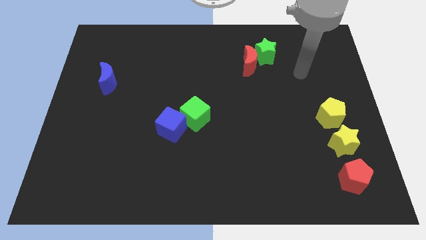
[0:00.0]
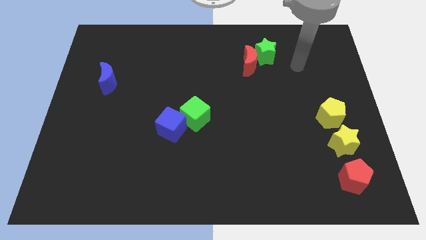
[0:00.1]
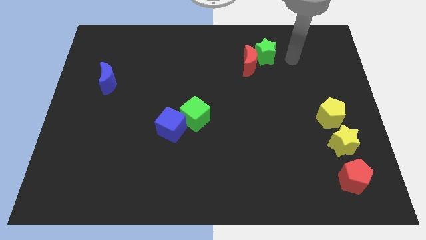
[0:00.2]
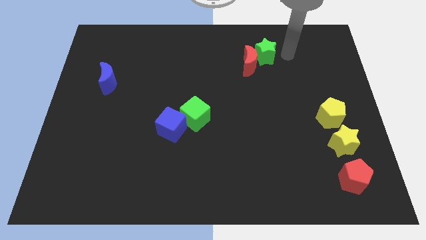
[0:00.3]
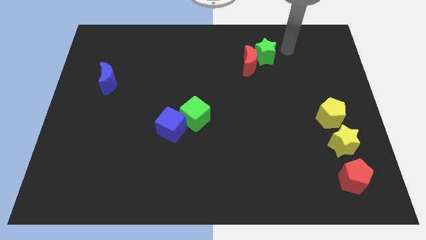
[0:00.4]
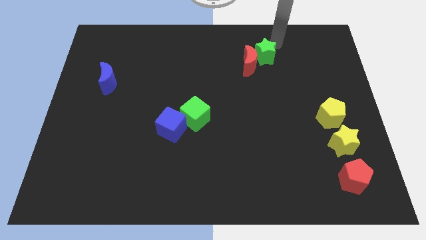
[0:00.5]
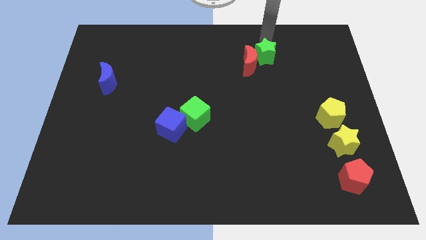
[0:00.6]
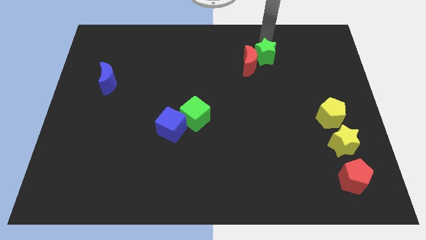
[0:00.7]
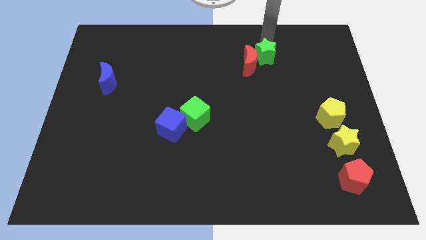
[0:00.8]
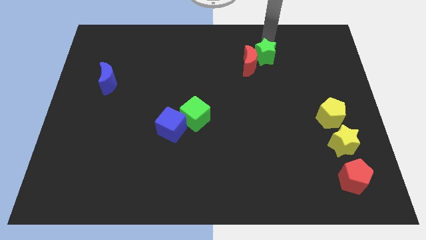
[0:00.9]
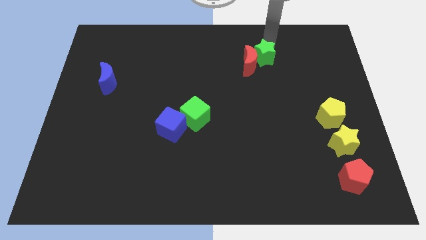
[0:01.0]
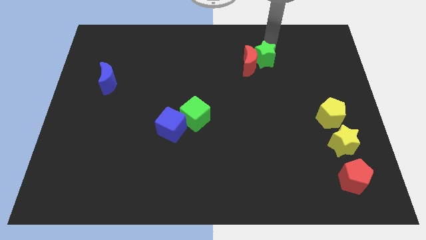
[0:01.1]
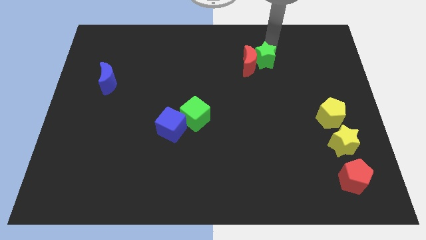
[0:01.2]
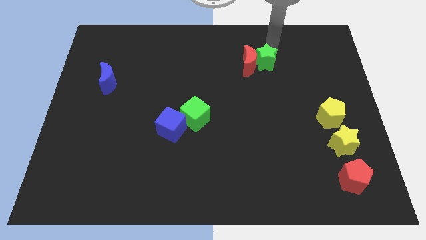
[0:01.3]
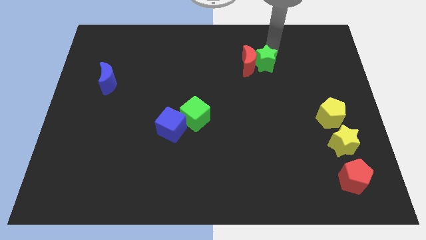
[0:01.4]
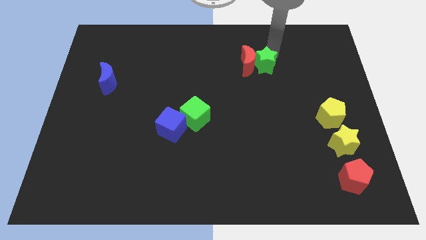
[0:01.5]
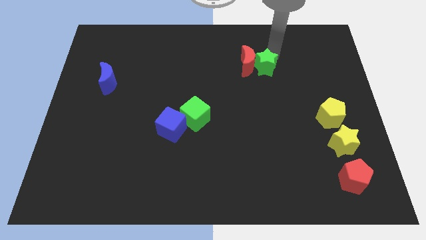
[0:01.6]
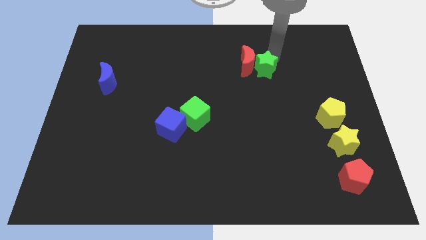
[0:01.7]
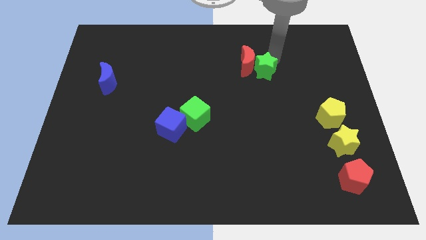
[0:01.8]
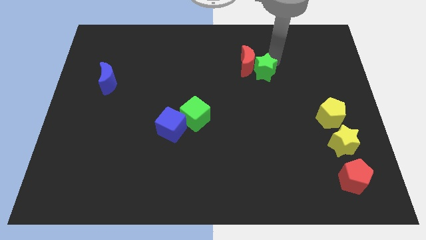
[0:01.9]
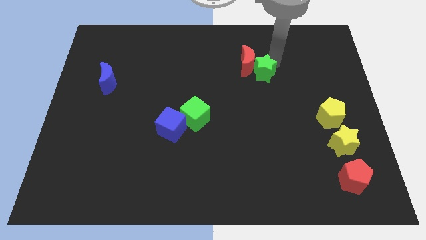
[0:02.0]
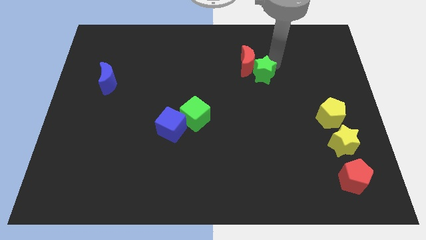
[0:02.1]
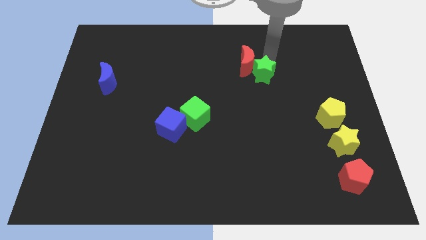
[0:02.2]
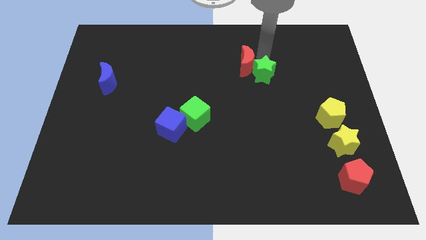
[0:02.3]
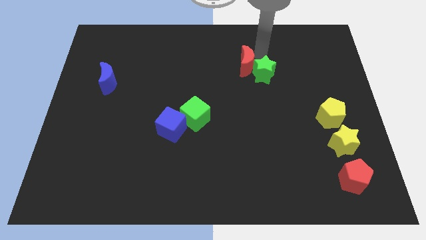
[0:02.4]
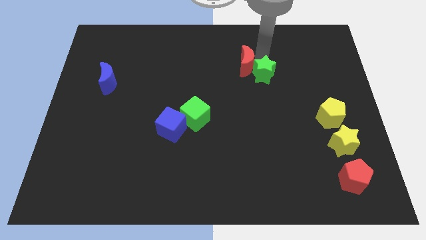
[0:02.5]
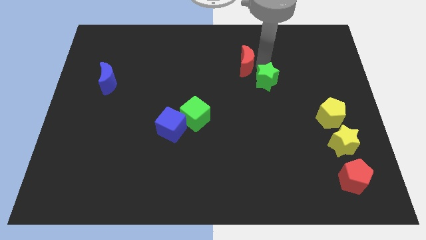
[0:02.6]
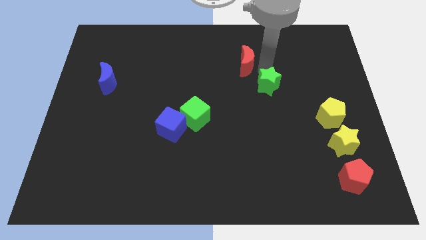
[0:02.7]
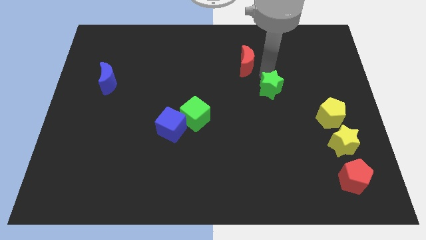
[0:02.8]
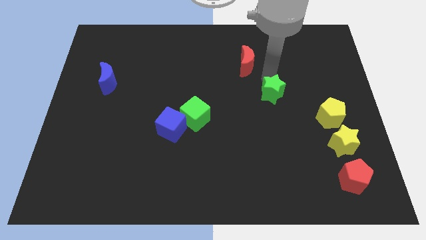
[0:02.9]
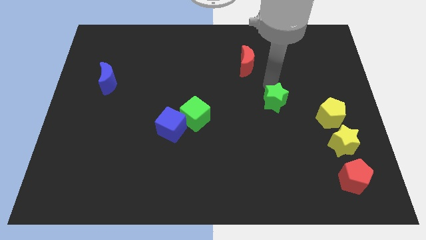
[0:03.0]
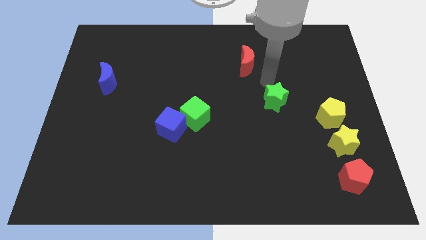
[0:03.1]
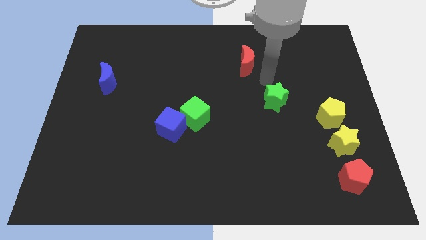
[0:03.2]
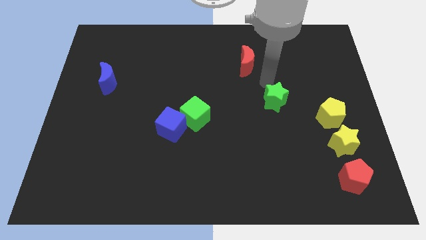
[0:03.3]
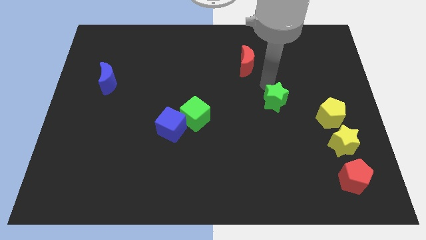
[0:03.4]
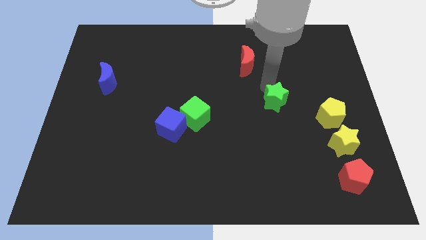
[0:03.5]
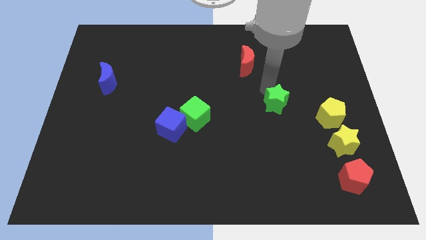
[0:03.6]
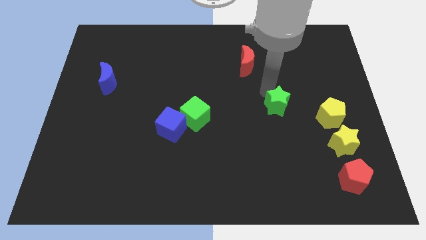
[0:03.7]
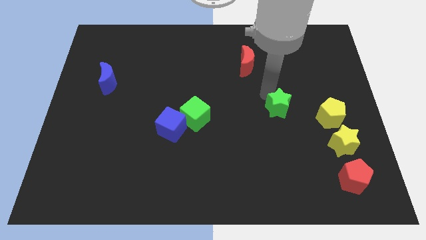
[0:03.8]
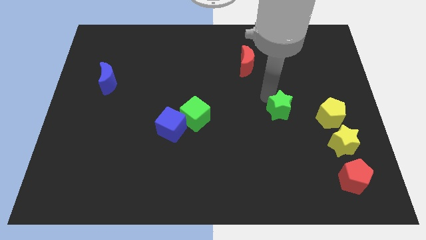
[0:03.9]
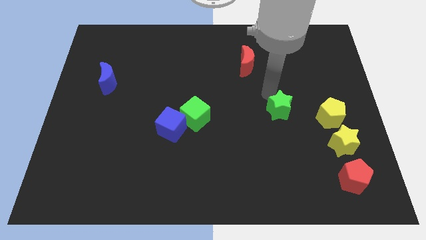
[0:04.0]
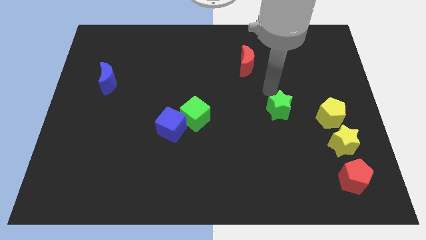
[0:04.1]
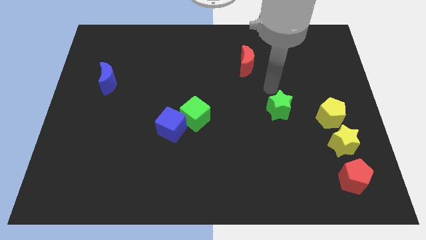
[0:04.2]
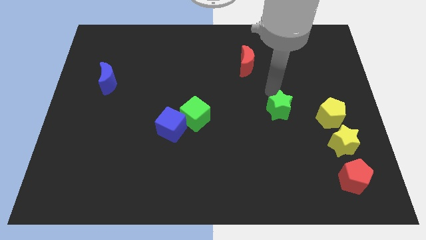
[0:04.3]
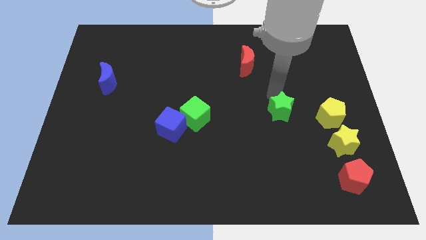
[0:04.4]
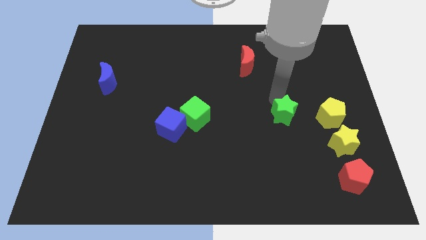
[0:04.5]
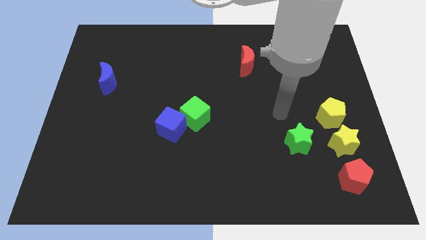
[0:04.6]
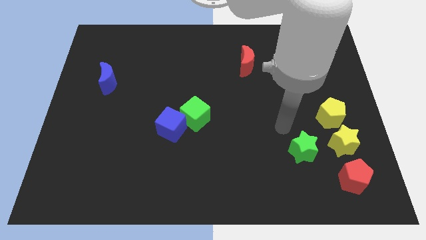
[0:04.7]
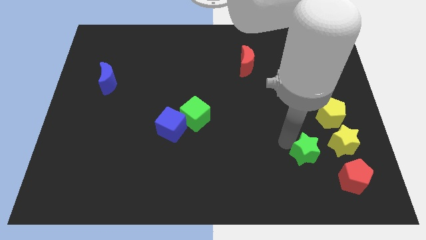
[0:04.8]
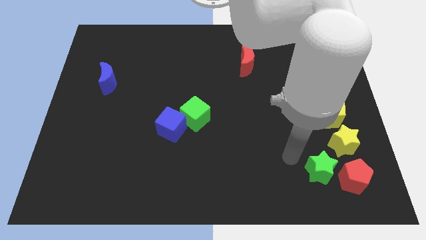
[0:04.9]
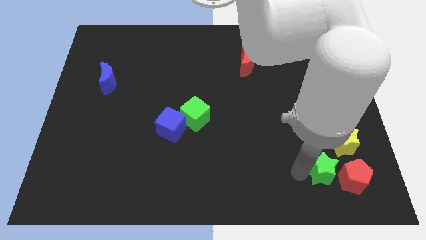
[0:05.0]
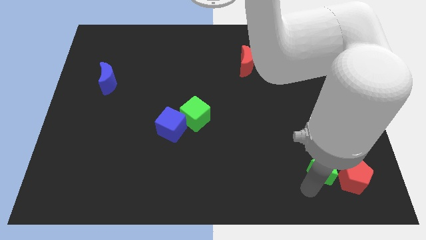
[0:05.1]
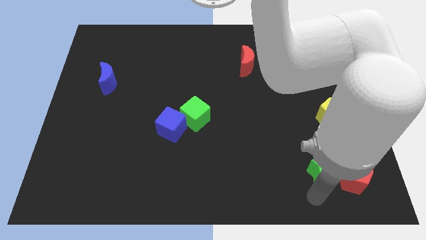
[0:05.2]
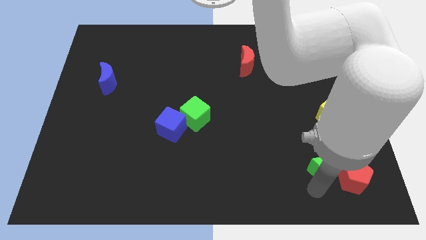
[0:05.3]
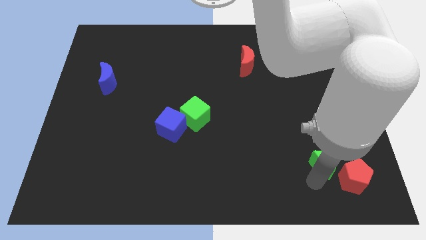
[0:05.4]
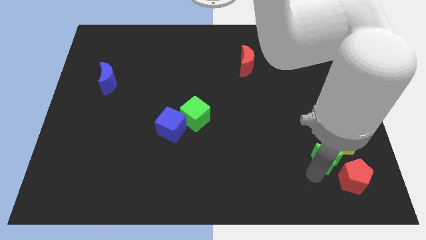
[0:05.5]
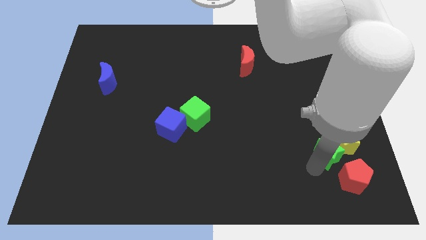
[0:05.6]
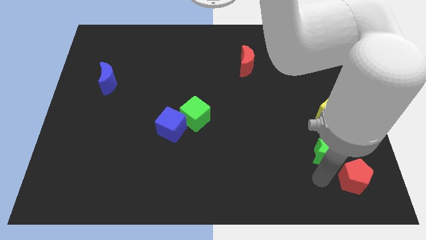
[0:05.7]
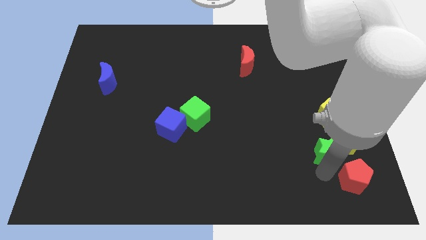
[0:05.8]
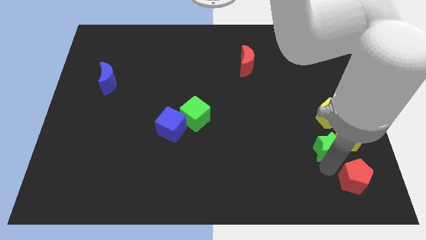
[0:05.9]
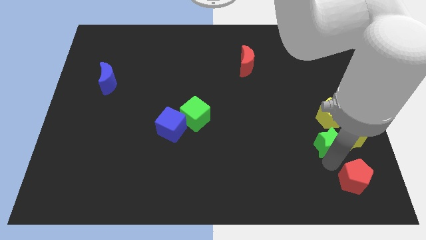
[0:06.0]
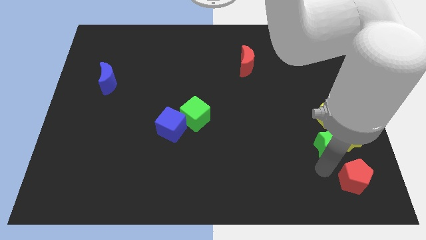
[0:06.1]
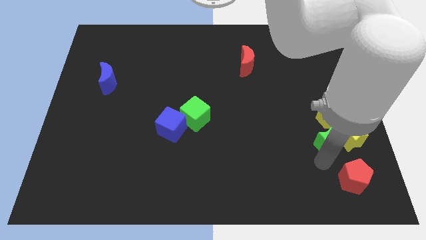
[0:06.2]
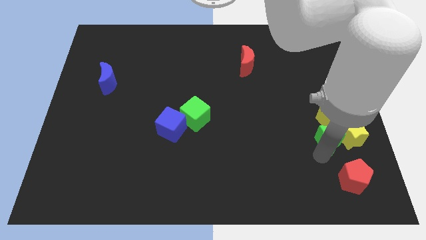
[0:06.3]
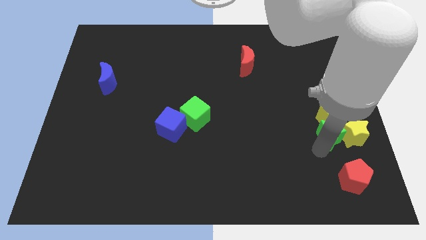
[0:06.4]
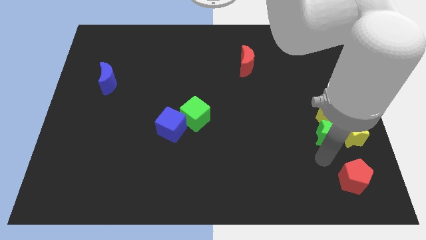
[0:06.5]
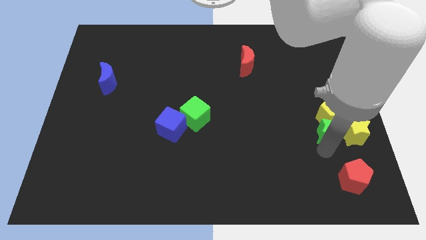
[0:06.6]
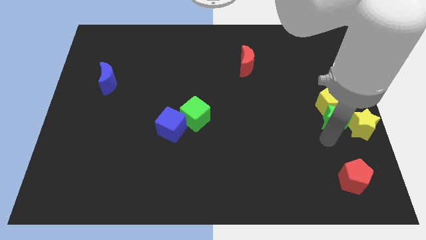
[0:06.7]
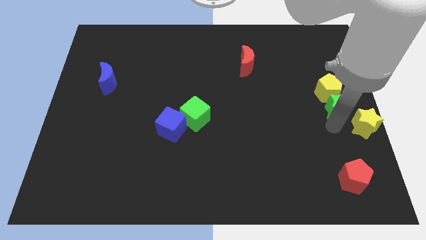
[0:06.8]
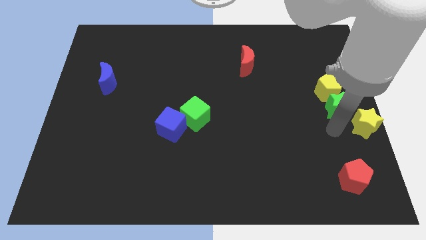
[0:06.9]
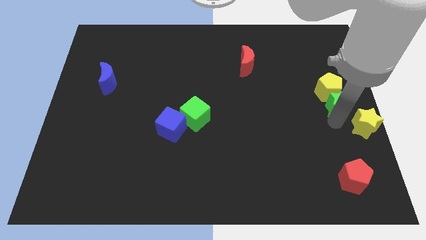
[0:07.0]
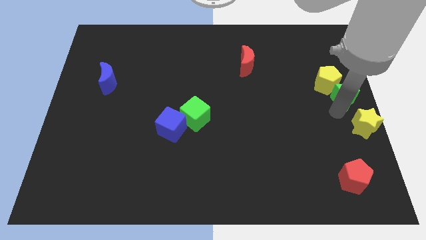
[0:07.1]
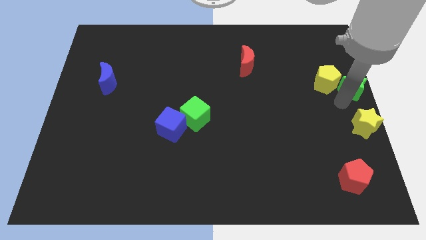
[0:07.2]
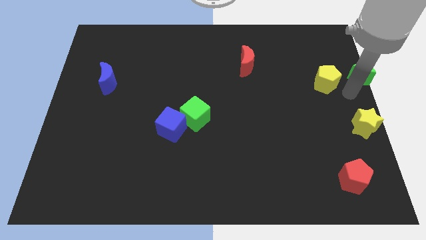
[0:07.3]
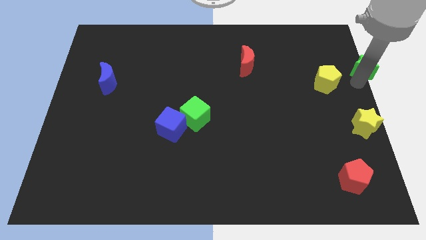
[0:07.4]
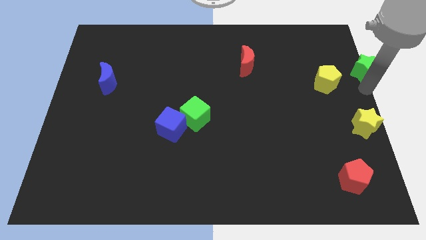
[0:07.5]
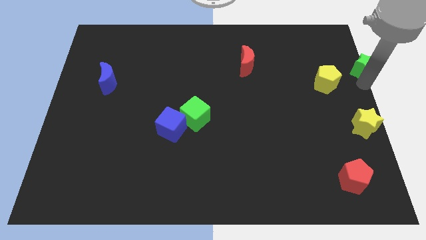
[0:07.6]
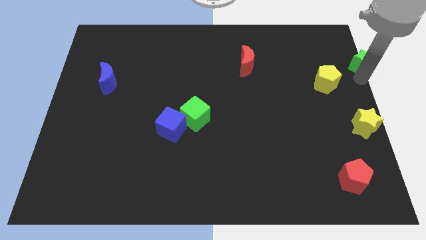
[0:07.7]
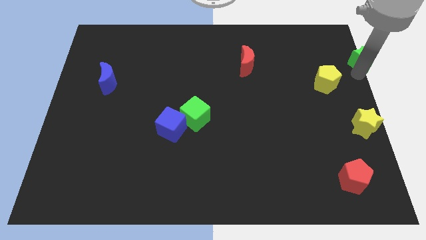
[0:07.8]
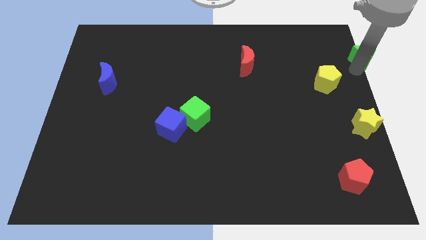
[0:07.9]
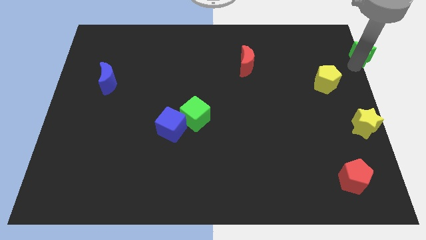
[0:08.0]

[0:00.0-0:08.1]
put the green star to the upper right corner
